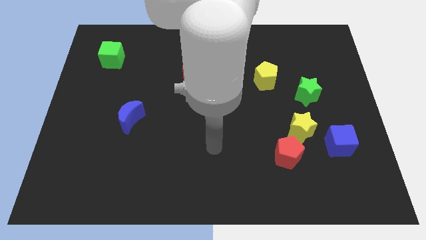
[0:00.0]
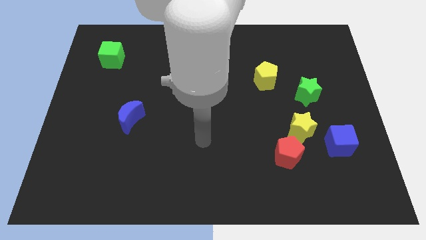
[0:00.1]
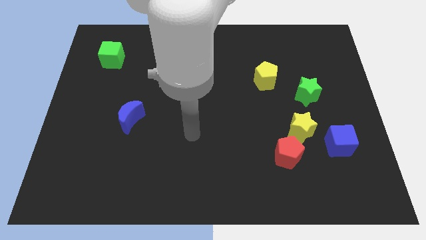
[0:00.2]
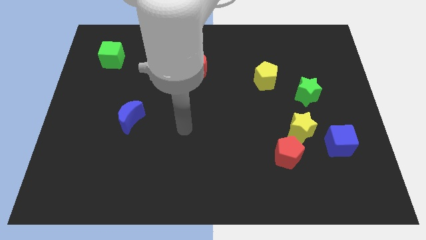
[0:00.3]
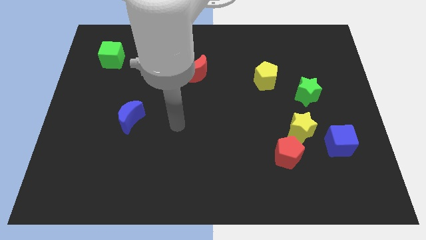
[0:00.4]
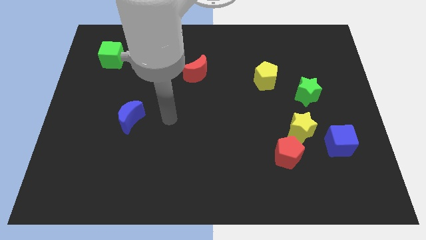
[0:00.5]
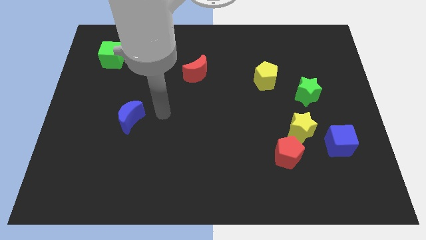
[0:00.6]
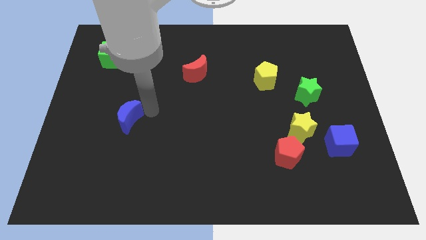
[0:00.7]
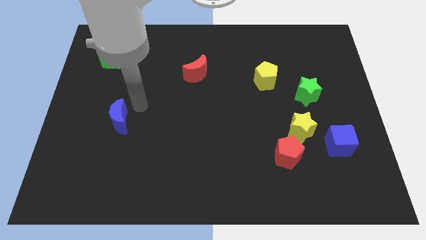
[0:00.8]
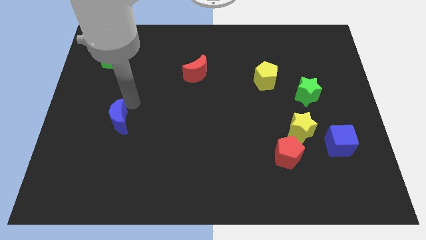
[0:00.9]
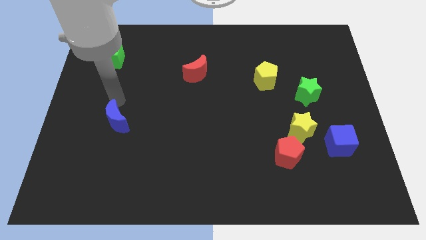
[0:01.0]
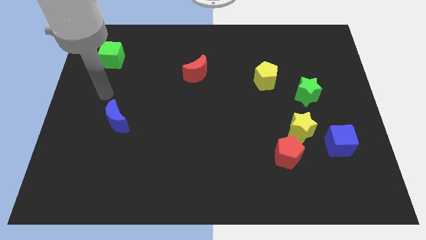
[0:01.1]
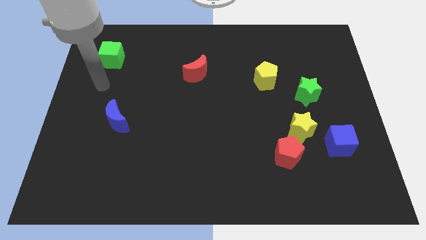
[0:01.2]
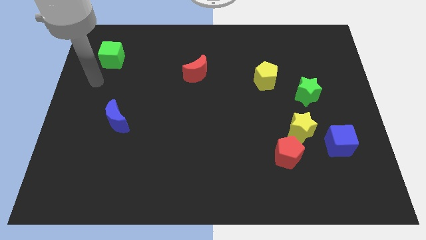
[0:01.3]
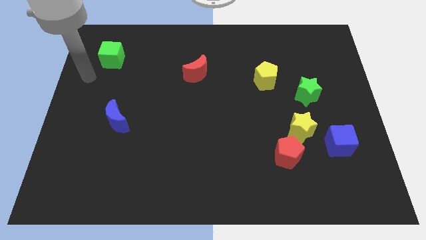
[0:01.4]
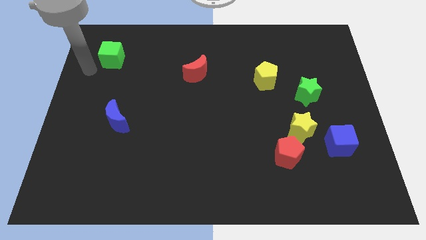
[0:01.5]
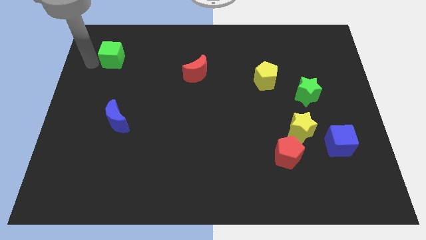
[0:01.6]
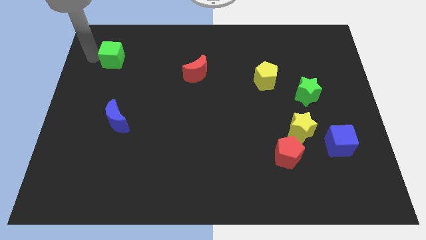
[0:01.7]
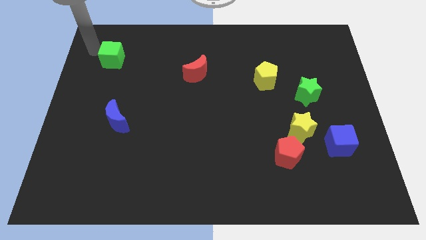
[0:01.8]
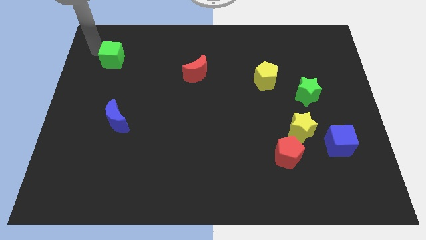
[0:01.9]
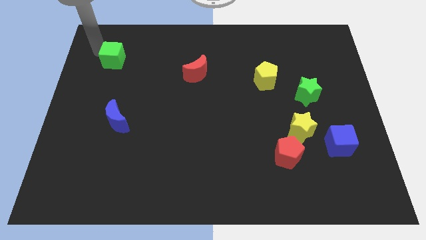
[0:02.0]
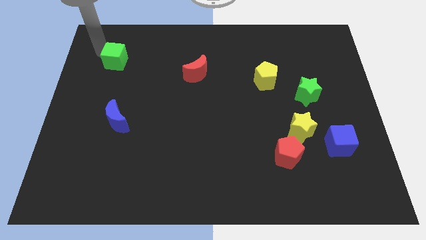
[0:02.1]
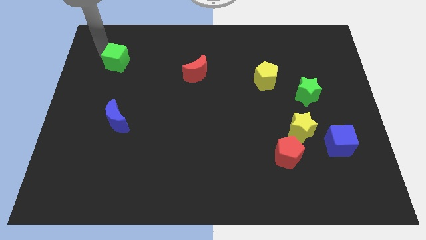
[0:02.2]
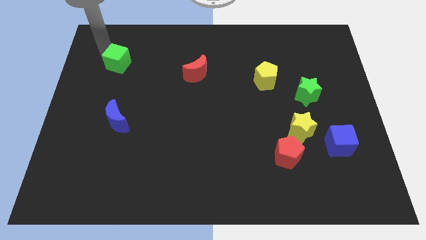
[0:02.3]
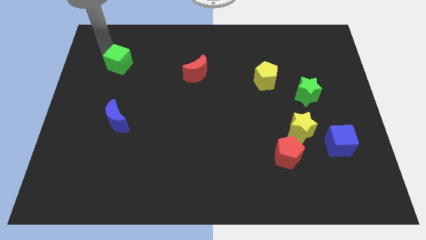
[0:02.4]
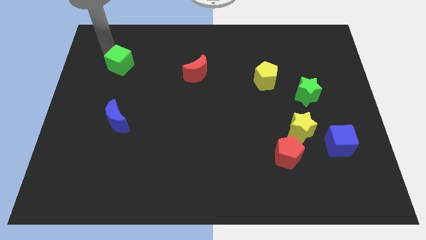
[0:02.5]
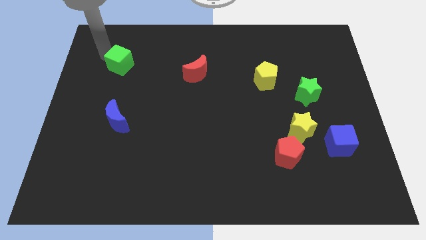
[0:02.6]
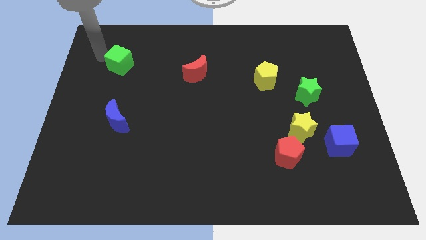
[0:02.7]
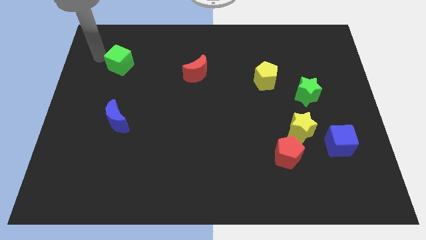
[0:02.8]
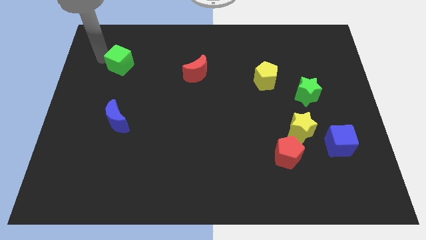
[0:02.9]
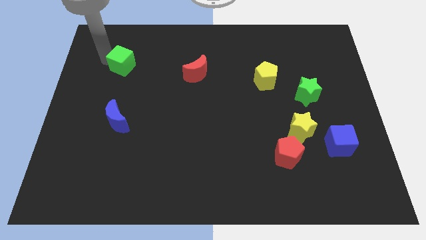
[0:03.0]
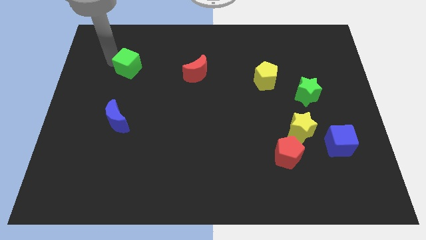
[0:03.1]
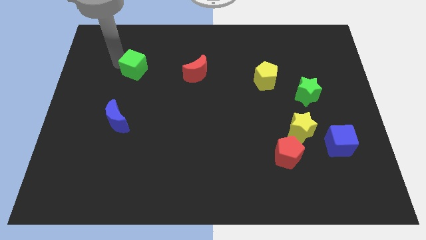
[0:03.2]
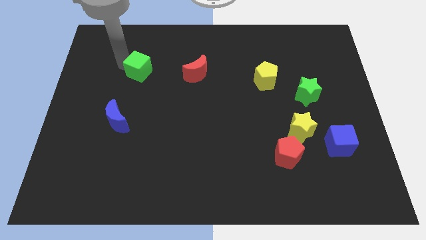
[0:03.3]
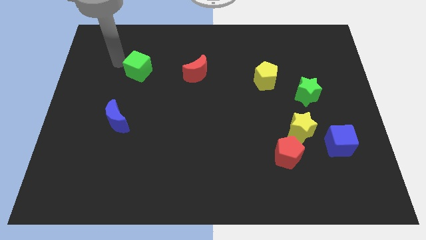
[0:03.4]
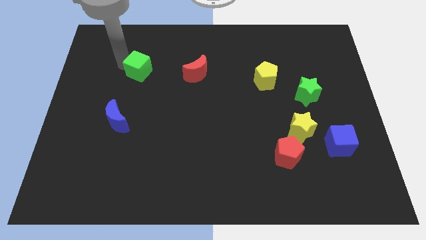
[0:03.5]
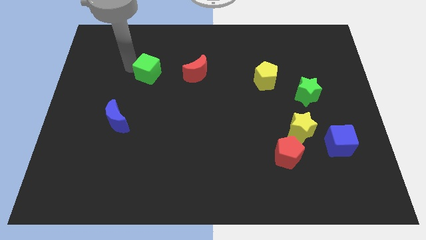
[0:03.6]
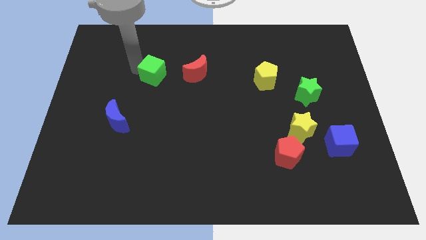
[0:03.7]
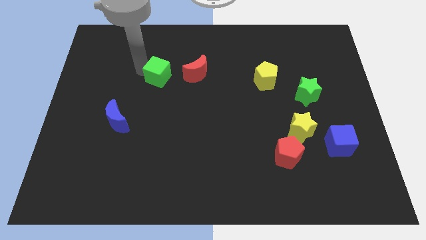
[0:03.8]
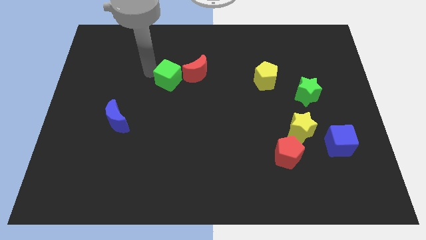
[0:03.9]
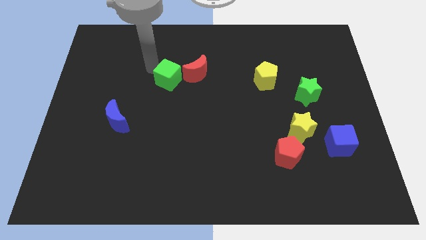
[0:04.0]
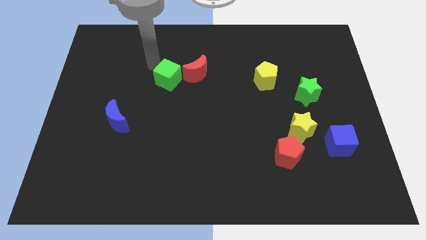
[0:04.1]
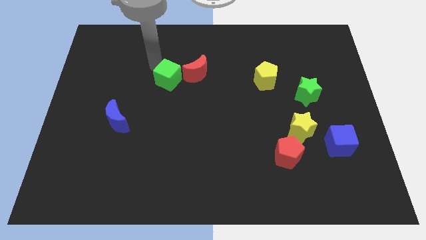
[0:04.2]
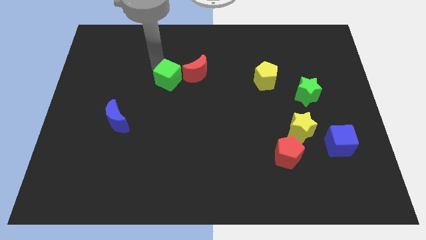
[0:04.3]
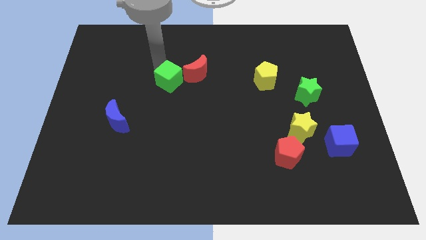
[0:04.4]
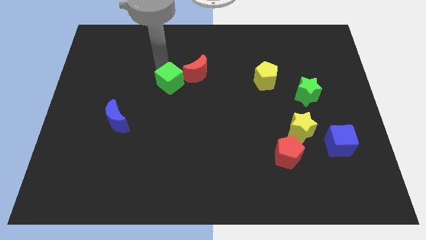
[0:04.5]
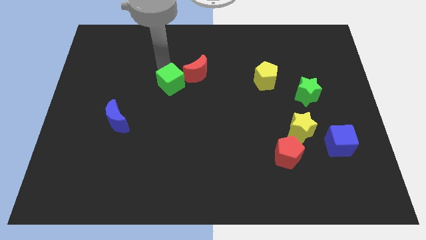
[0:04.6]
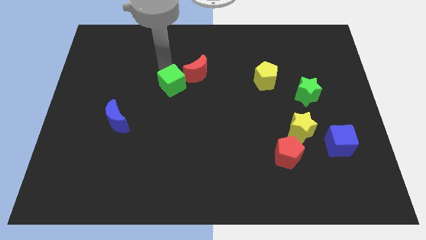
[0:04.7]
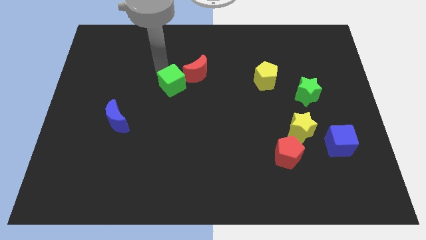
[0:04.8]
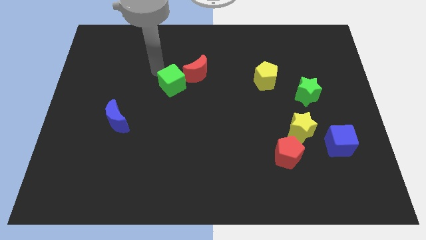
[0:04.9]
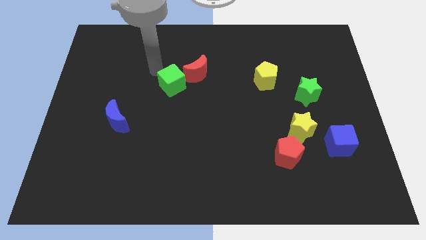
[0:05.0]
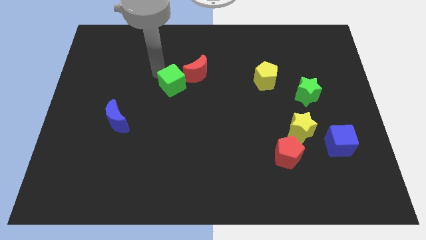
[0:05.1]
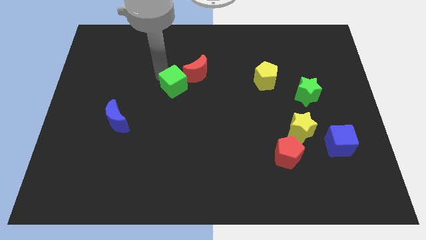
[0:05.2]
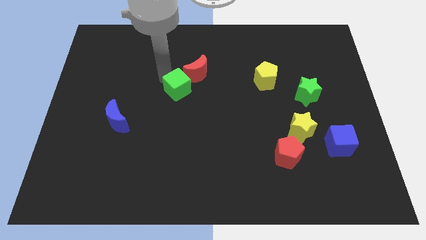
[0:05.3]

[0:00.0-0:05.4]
put the green cube to the bottom of the red moon

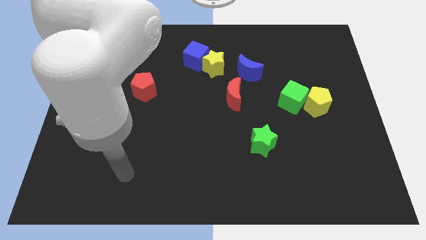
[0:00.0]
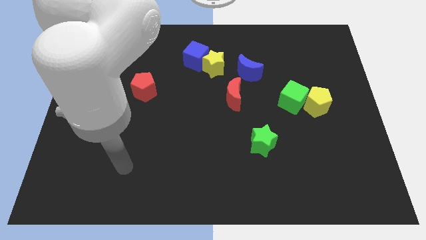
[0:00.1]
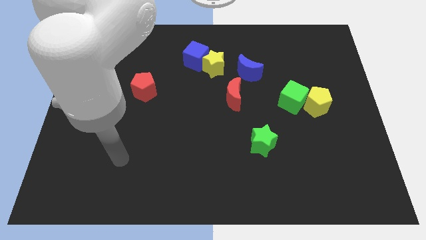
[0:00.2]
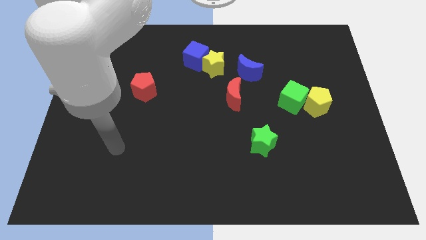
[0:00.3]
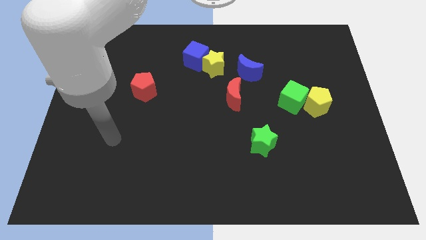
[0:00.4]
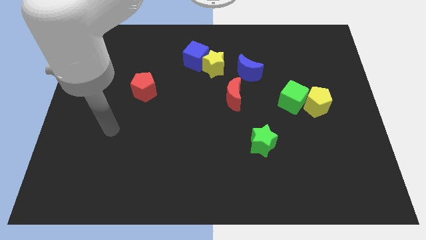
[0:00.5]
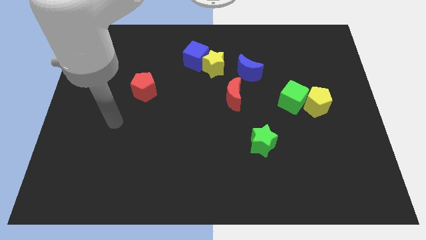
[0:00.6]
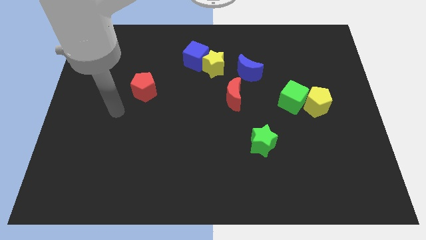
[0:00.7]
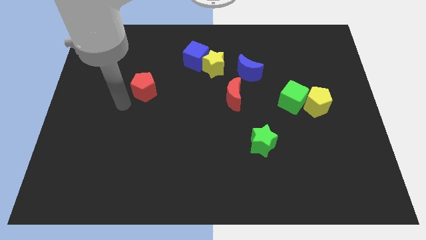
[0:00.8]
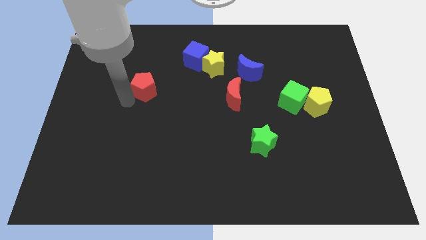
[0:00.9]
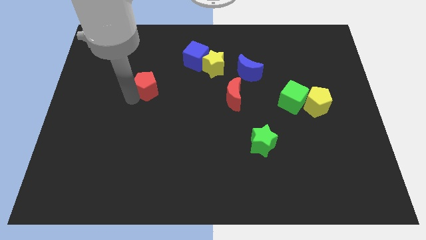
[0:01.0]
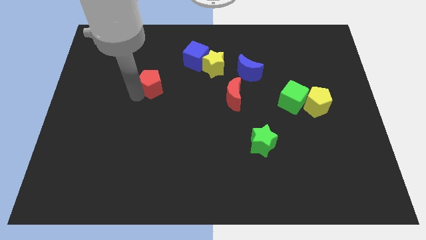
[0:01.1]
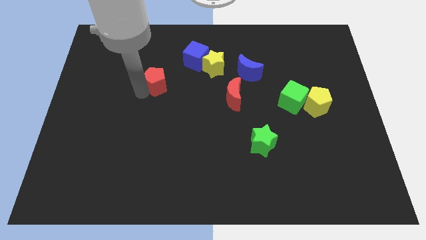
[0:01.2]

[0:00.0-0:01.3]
push the red pentagon to the bottom left of the blue cube
